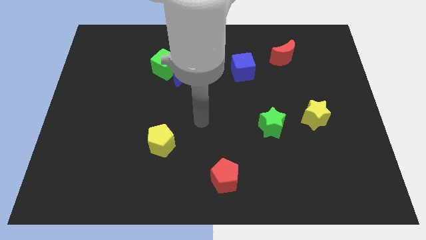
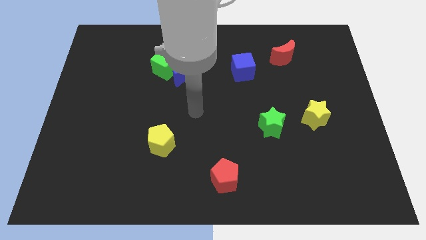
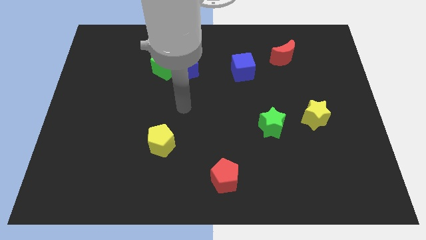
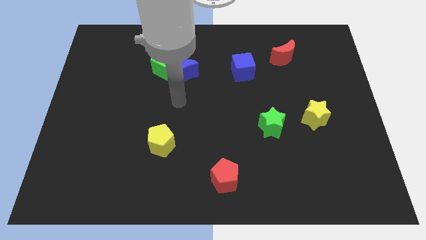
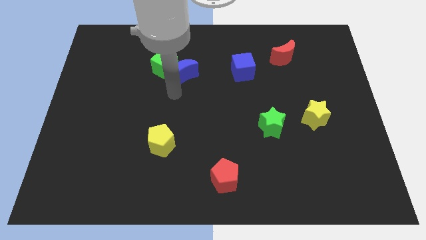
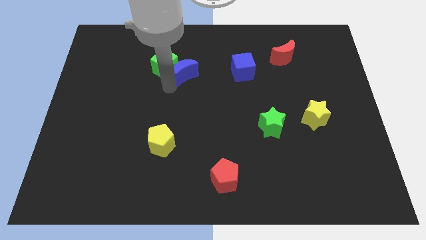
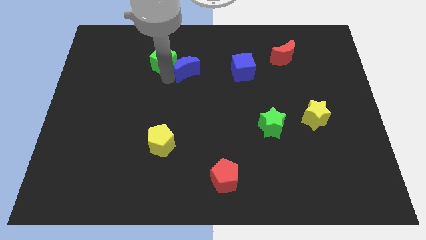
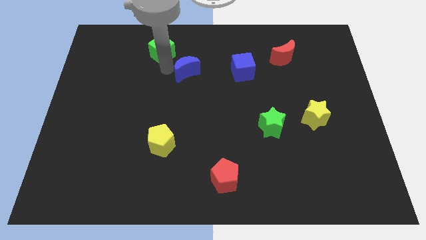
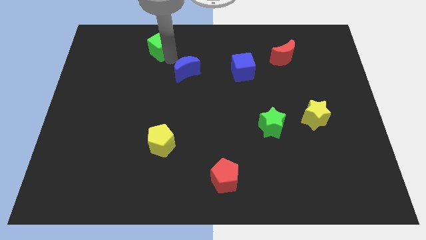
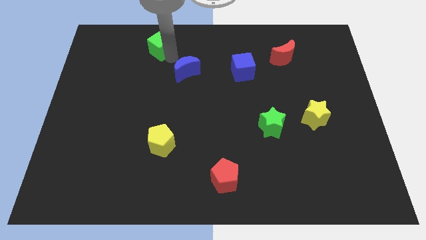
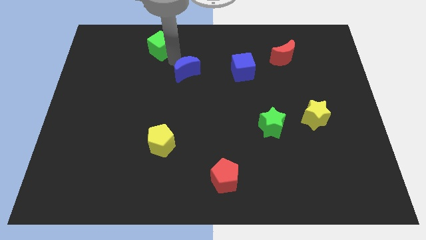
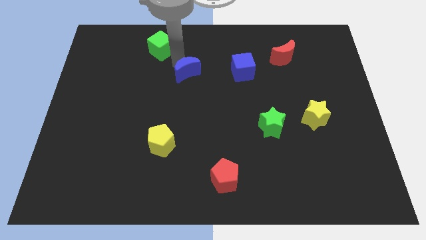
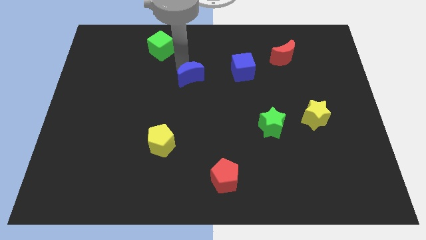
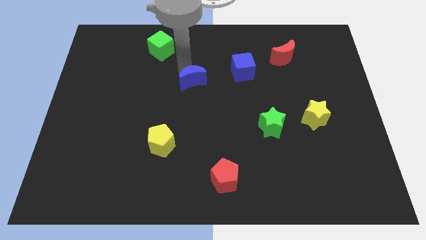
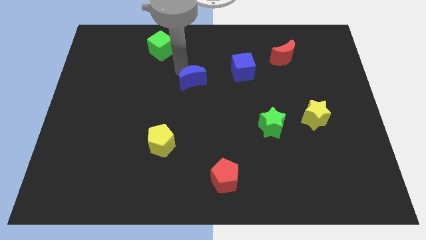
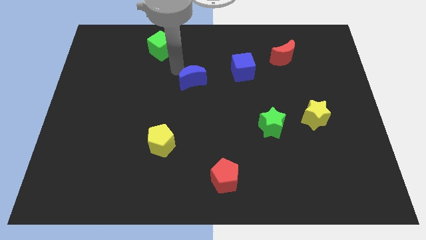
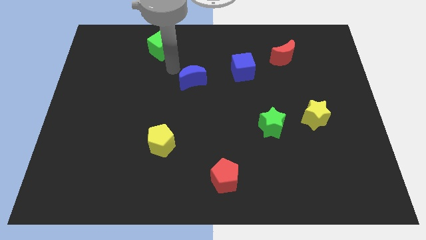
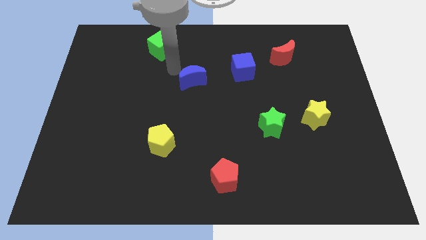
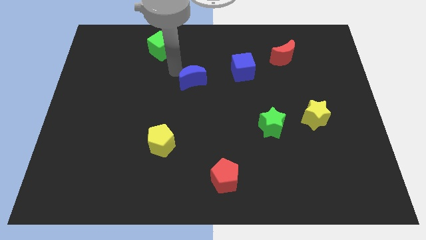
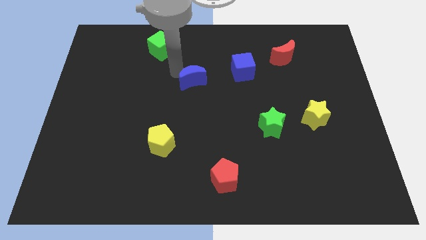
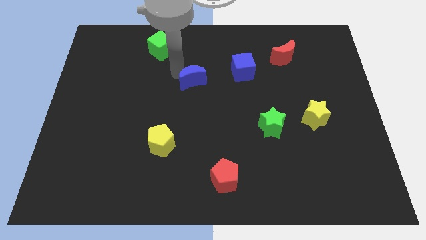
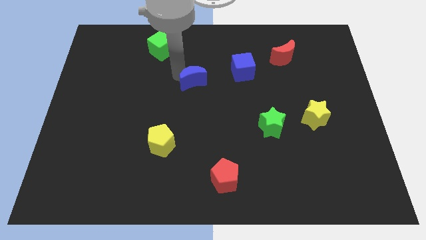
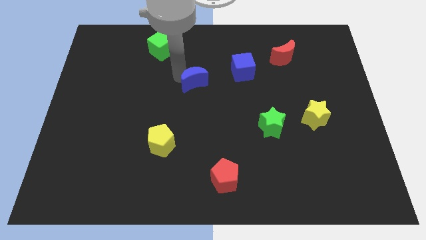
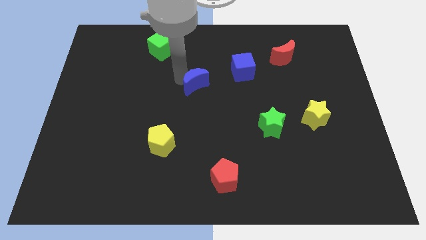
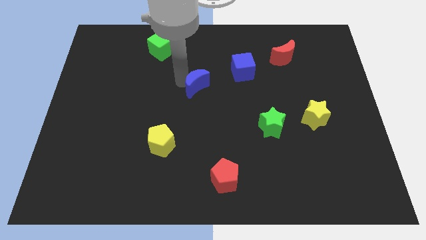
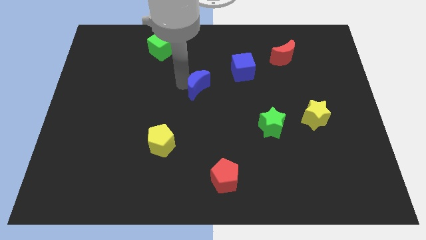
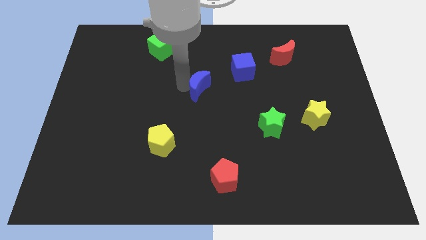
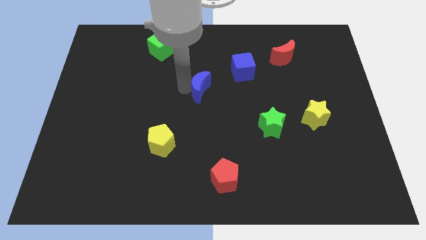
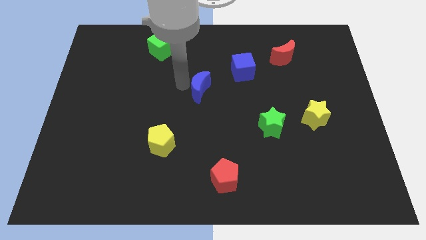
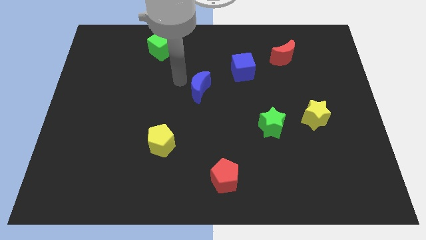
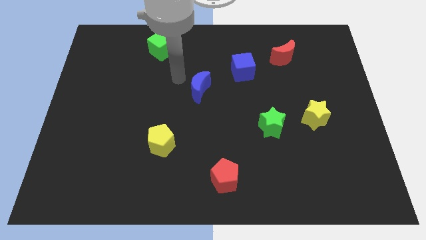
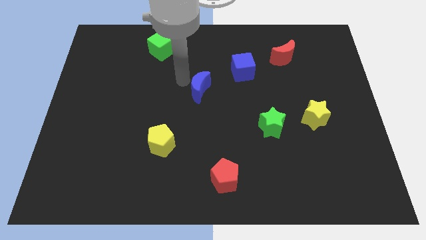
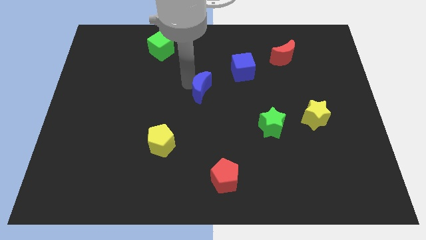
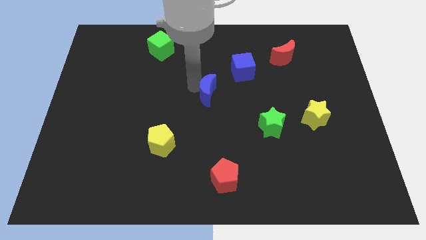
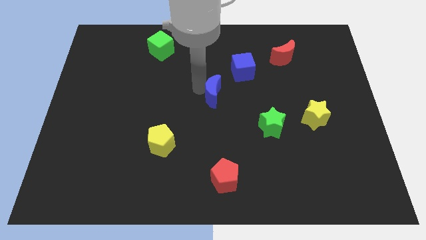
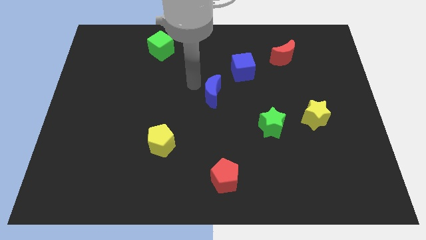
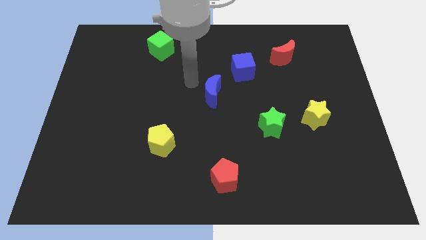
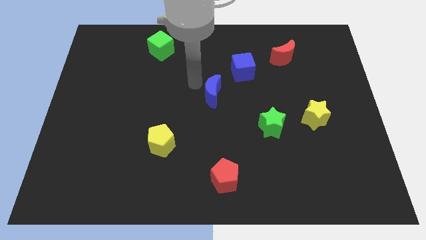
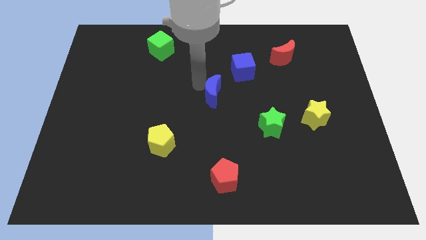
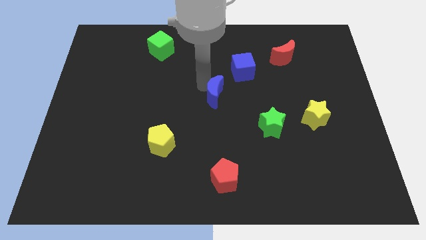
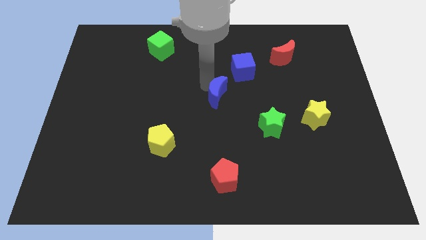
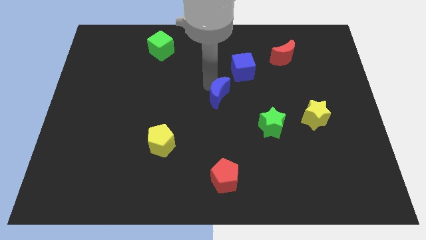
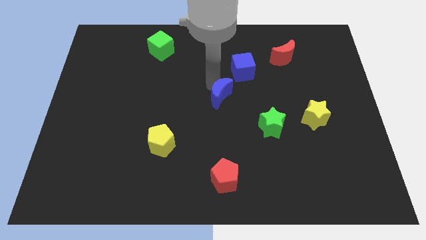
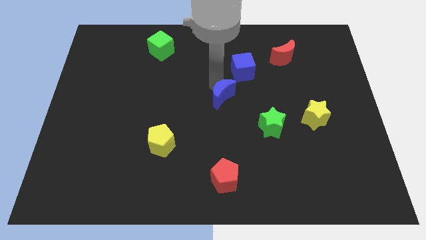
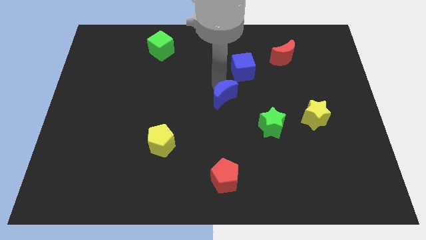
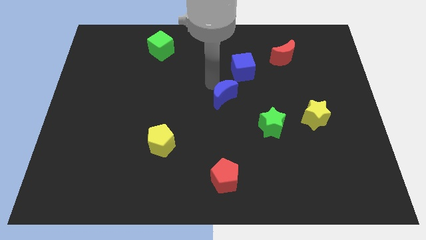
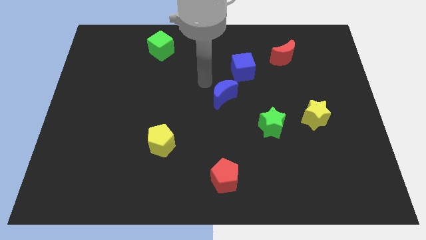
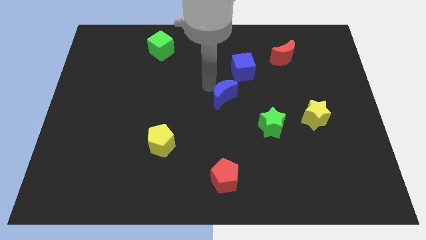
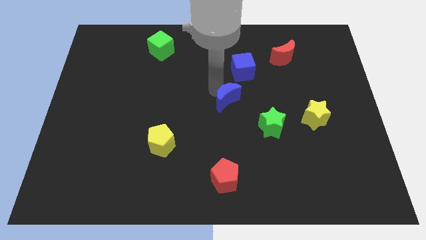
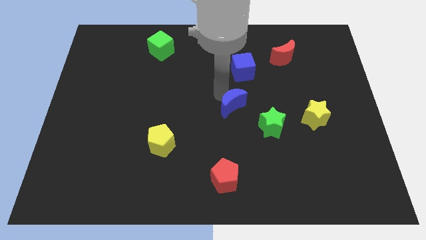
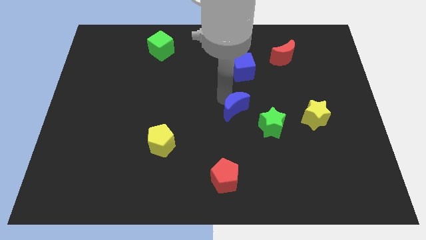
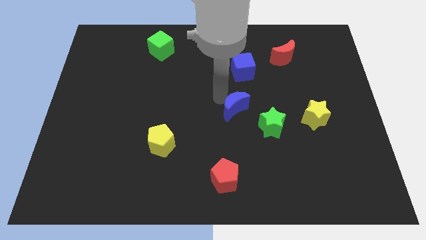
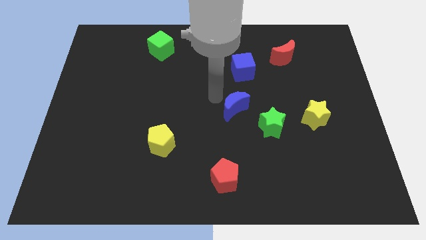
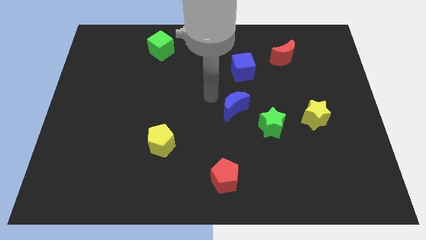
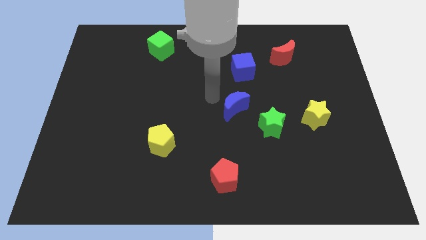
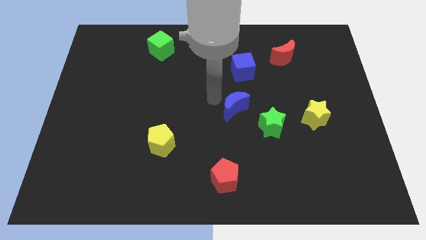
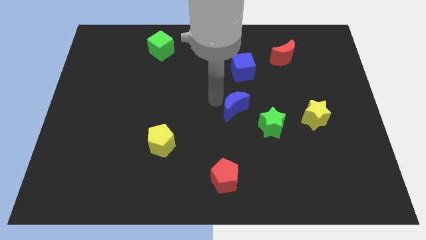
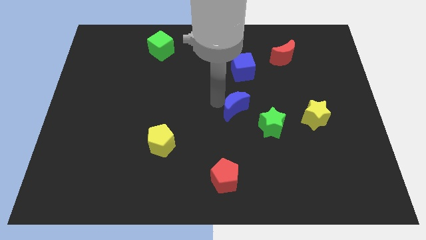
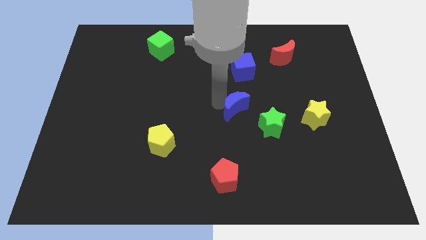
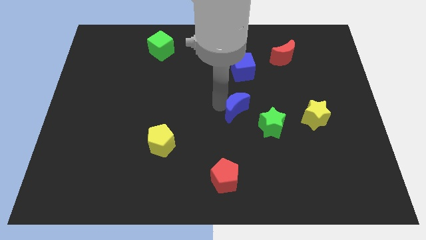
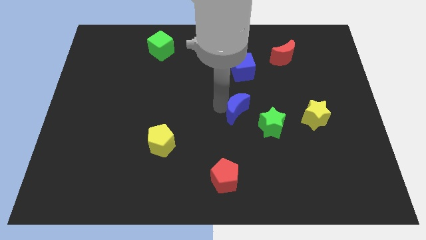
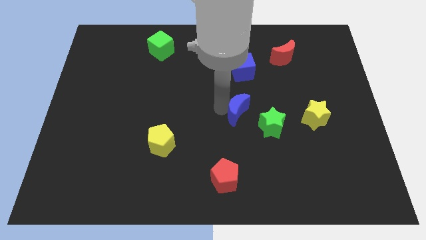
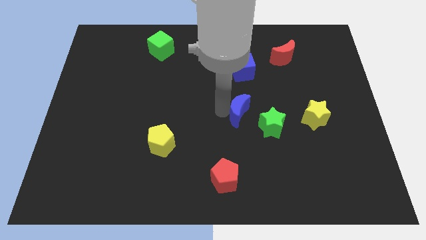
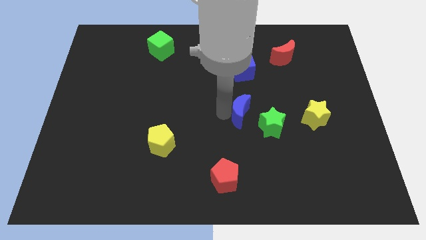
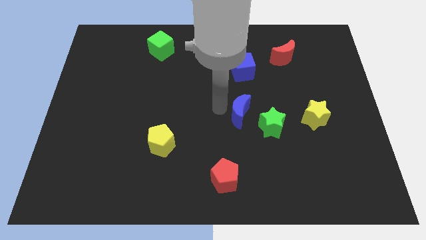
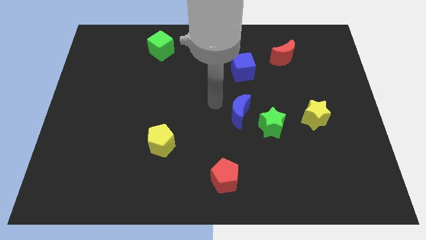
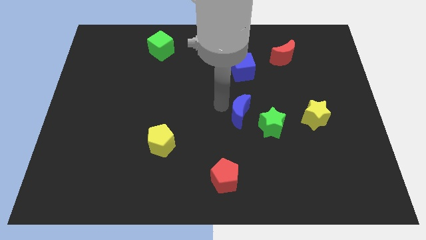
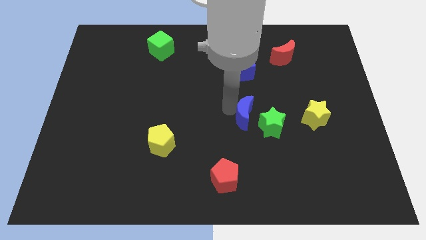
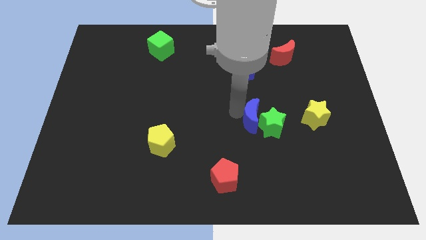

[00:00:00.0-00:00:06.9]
move the blue moon close to the green star
